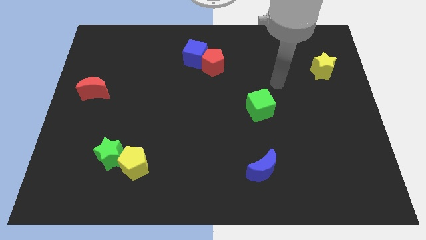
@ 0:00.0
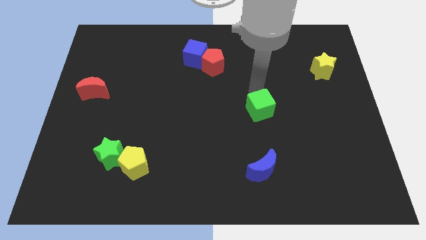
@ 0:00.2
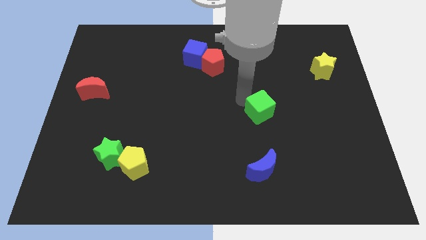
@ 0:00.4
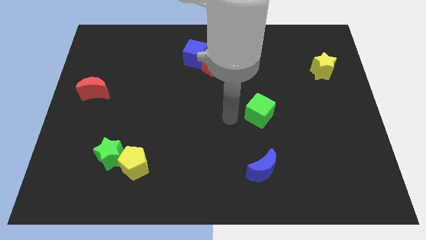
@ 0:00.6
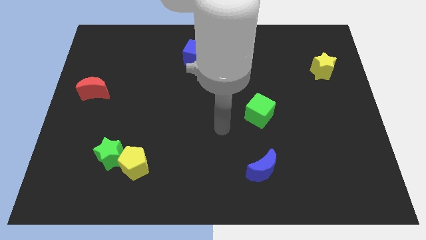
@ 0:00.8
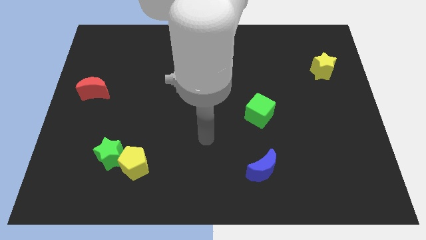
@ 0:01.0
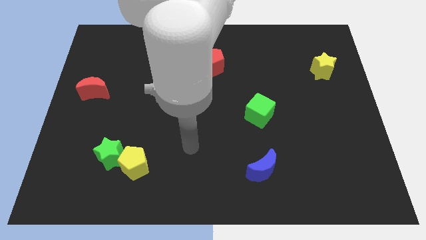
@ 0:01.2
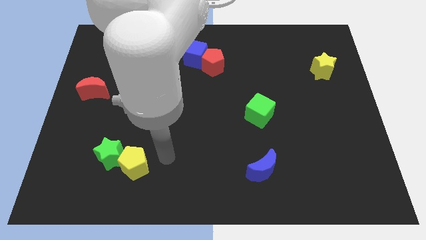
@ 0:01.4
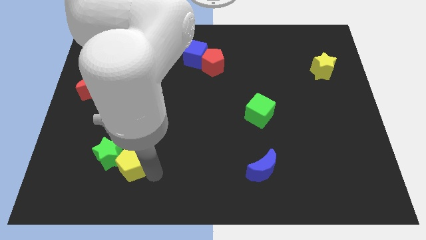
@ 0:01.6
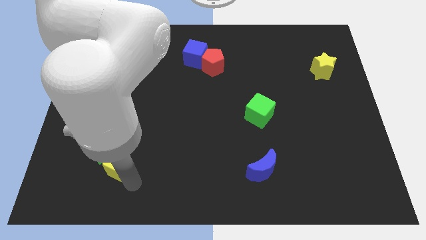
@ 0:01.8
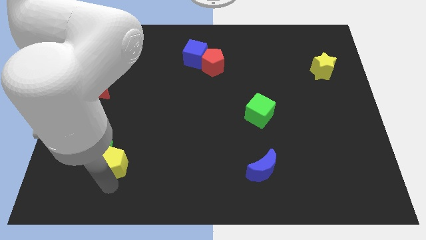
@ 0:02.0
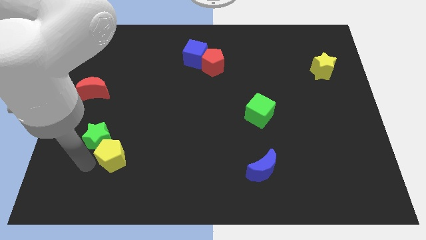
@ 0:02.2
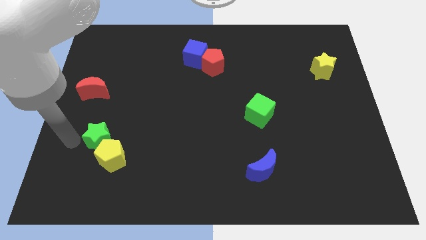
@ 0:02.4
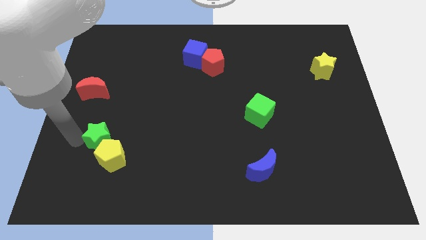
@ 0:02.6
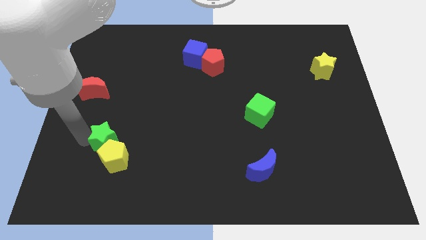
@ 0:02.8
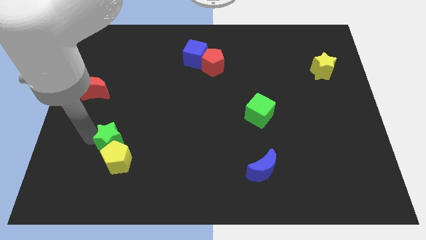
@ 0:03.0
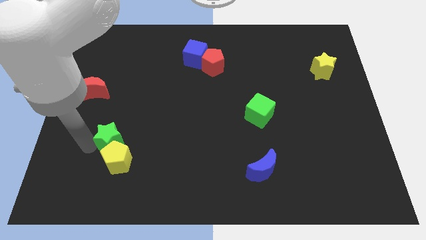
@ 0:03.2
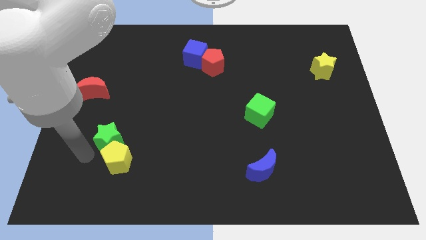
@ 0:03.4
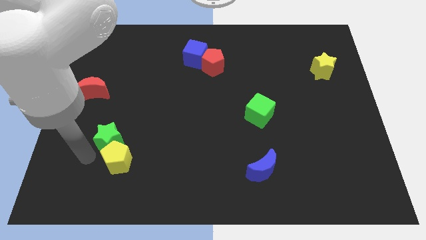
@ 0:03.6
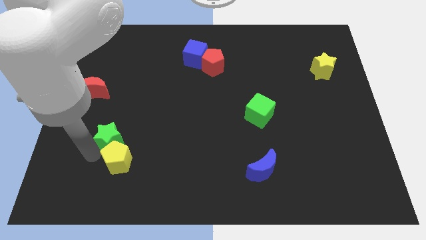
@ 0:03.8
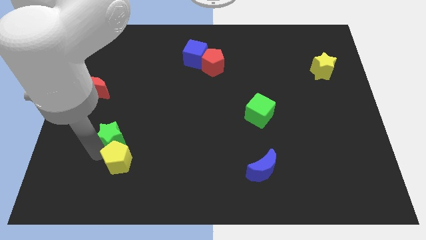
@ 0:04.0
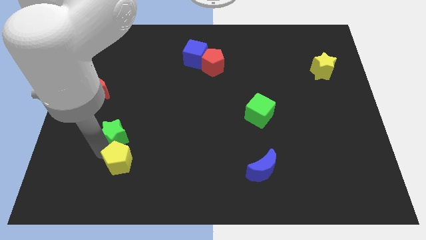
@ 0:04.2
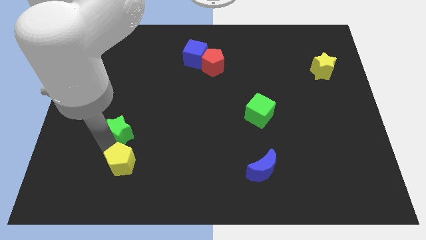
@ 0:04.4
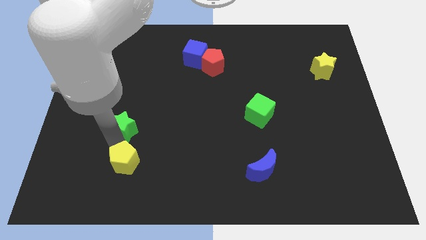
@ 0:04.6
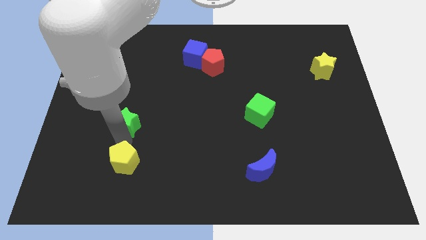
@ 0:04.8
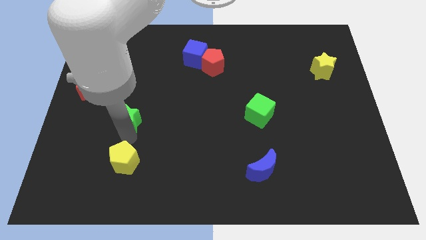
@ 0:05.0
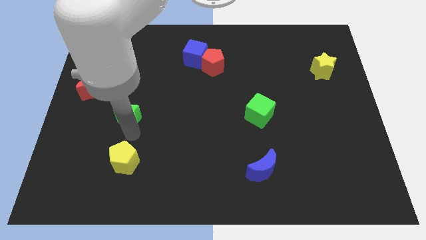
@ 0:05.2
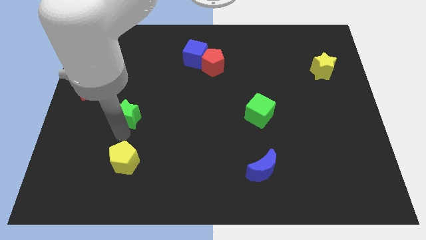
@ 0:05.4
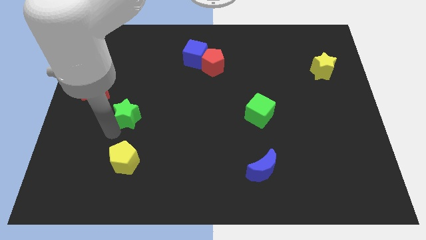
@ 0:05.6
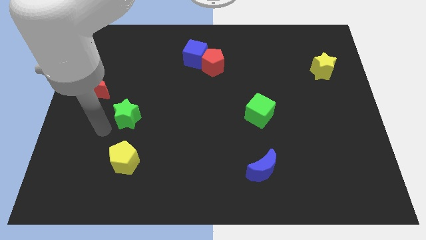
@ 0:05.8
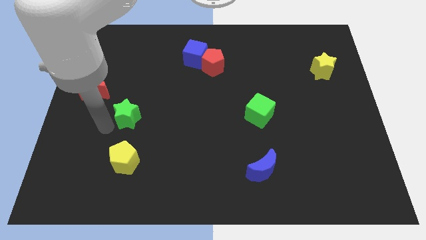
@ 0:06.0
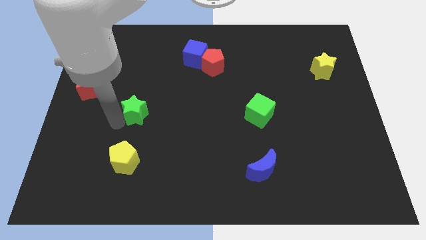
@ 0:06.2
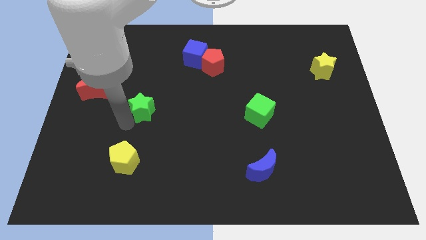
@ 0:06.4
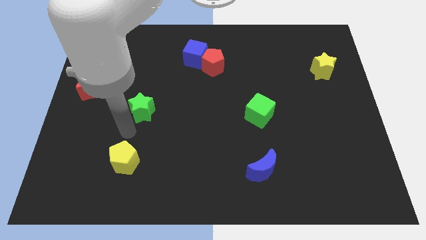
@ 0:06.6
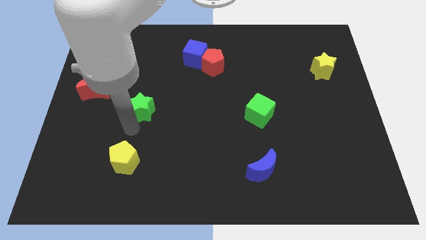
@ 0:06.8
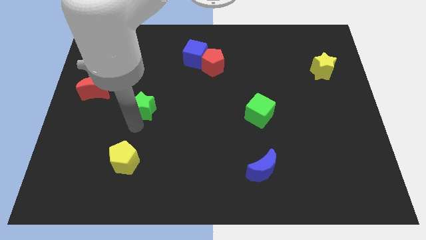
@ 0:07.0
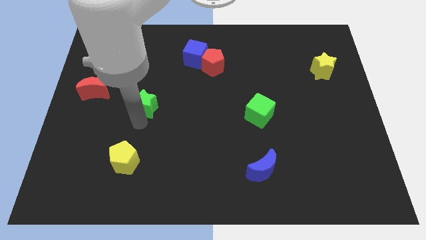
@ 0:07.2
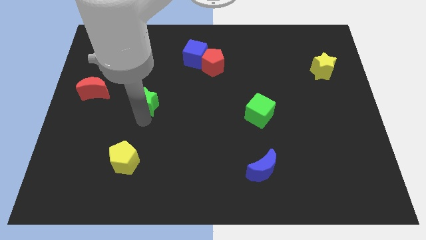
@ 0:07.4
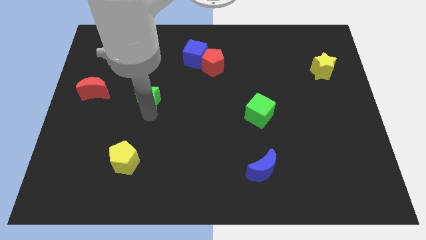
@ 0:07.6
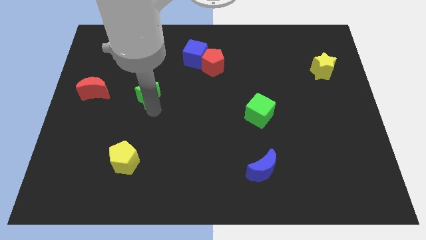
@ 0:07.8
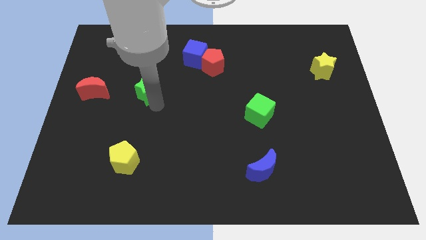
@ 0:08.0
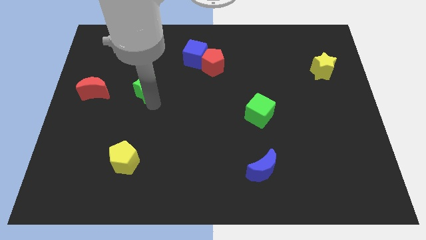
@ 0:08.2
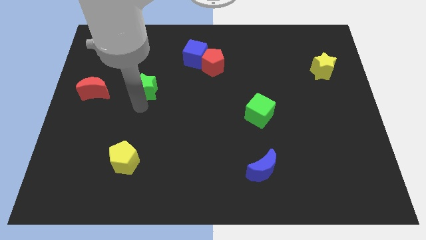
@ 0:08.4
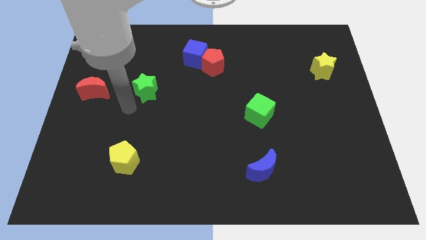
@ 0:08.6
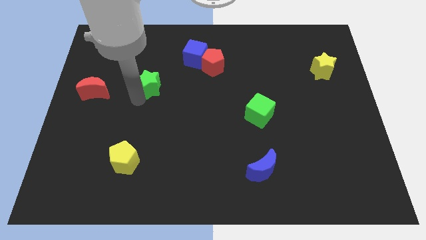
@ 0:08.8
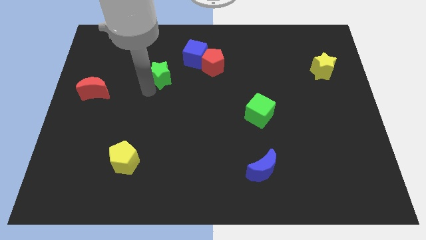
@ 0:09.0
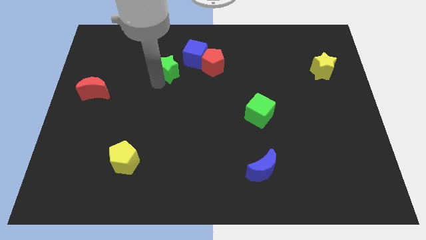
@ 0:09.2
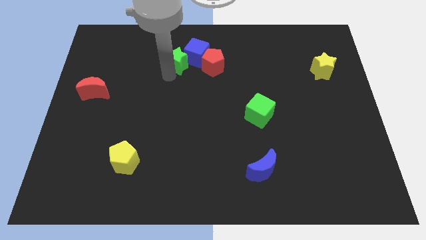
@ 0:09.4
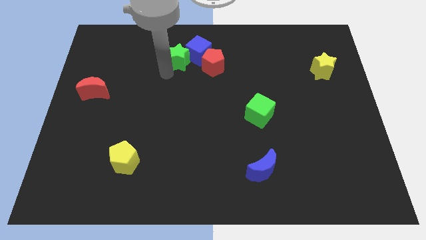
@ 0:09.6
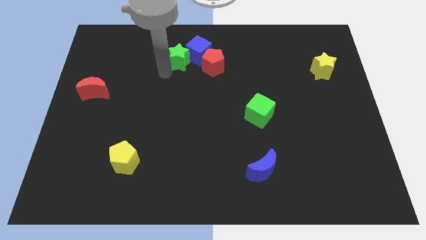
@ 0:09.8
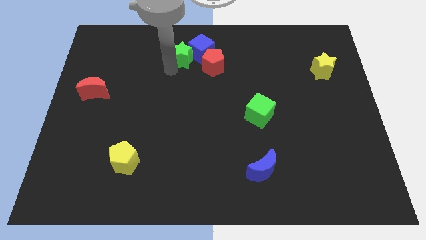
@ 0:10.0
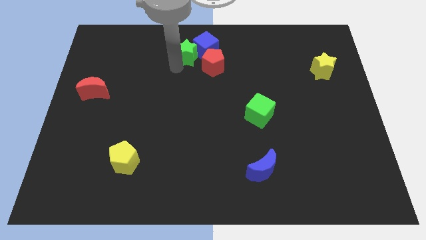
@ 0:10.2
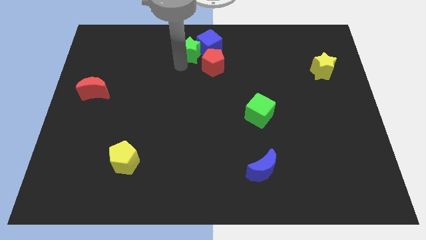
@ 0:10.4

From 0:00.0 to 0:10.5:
put the green star to the top side

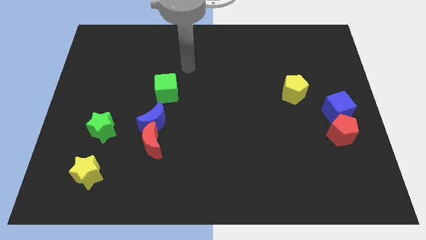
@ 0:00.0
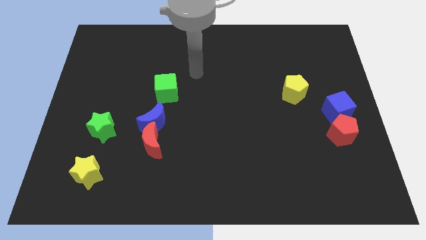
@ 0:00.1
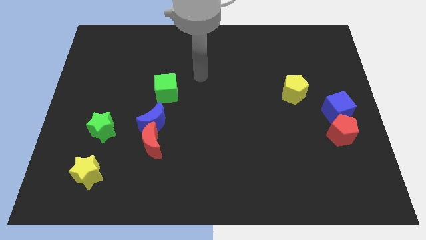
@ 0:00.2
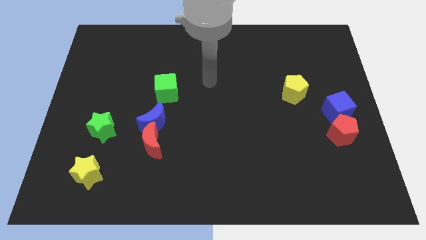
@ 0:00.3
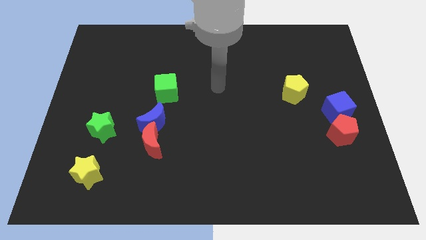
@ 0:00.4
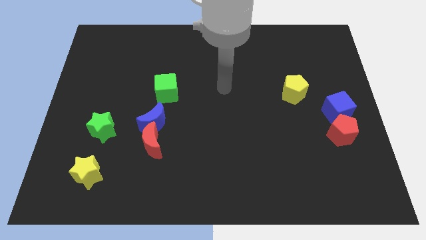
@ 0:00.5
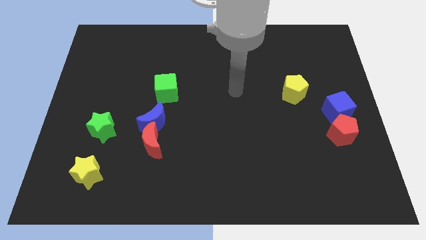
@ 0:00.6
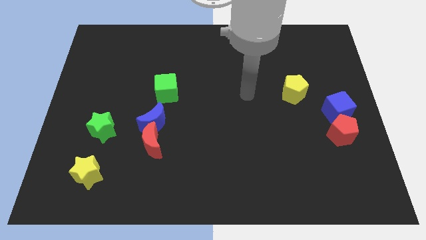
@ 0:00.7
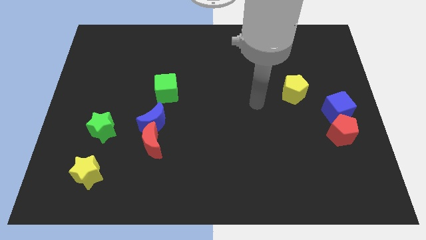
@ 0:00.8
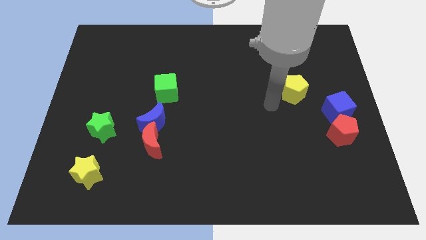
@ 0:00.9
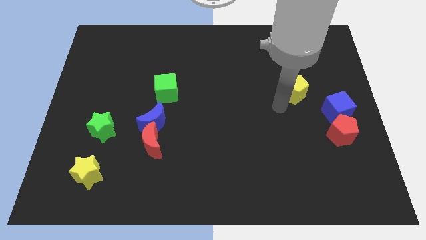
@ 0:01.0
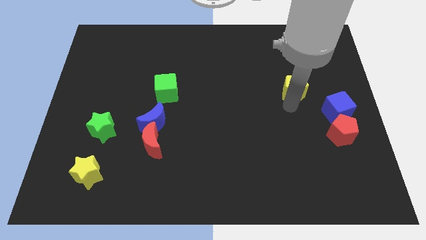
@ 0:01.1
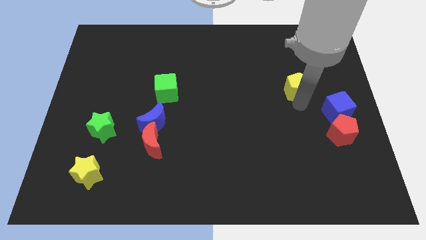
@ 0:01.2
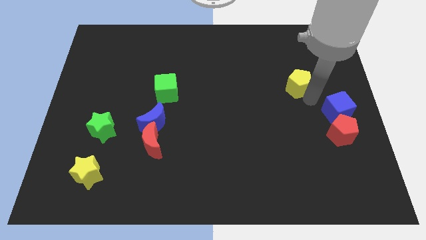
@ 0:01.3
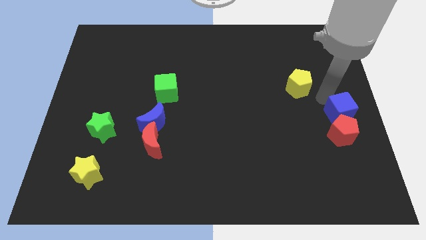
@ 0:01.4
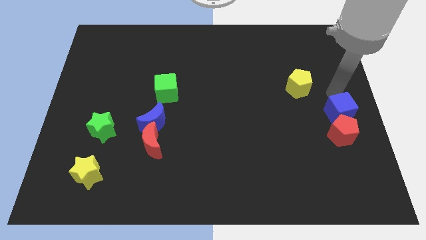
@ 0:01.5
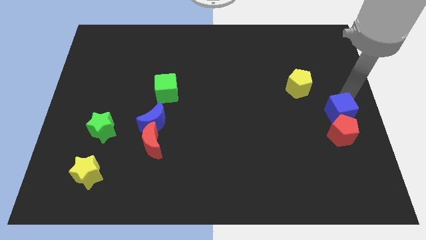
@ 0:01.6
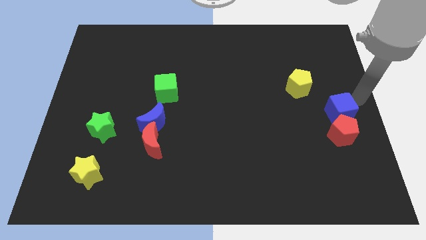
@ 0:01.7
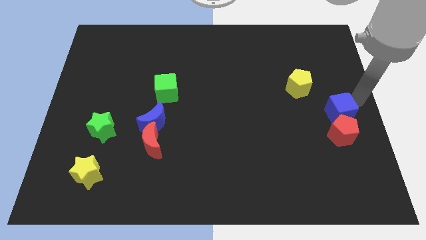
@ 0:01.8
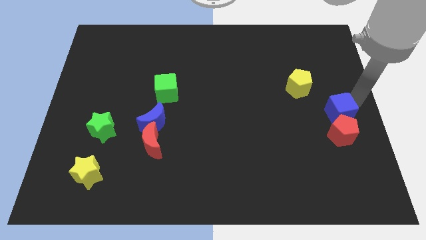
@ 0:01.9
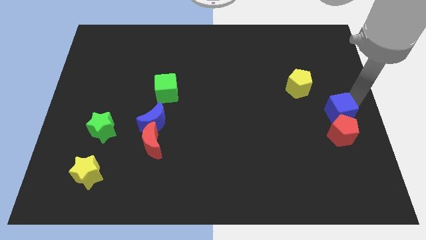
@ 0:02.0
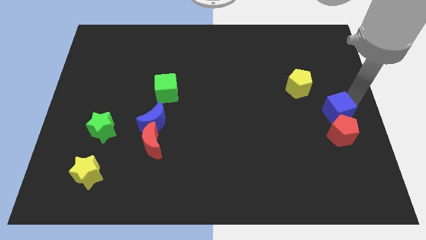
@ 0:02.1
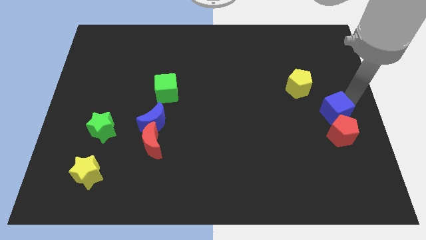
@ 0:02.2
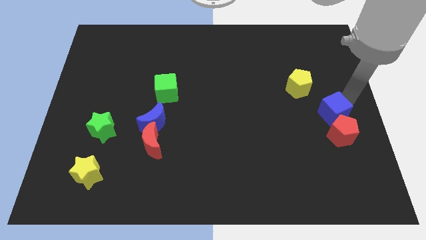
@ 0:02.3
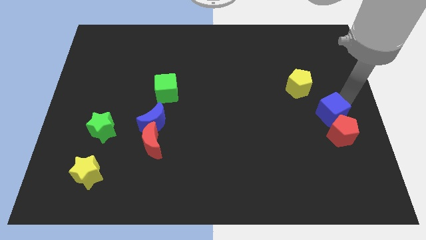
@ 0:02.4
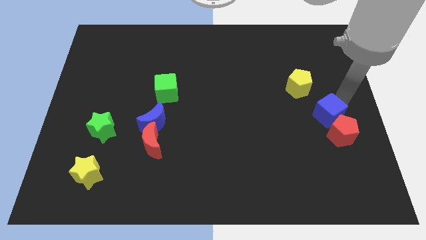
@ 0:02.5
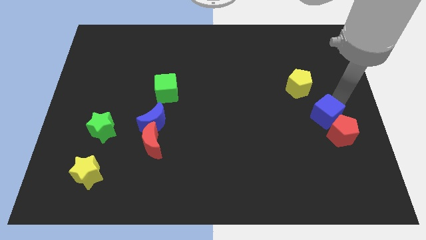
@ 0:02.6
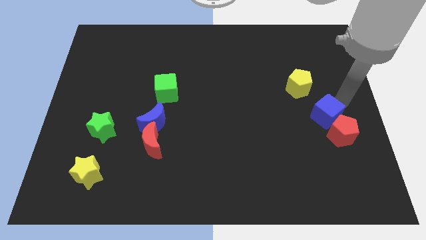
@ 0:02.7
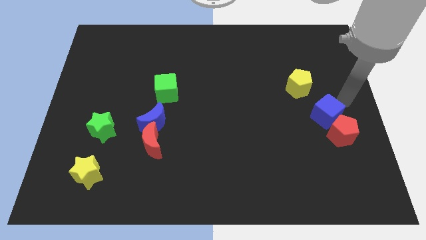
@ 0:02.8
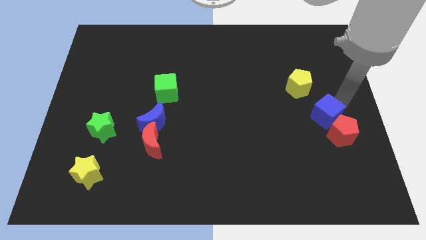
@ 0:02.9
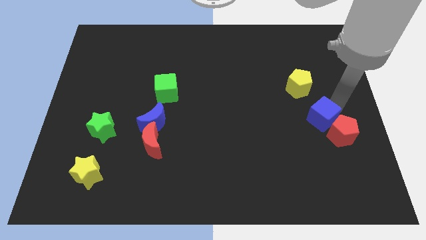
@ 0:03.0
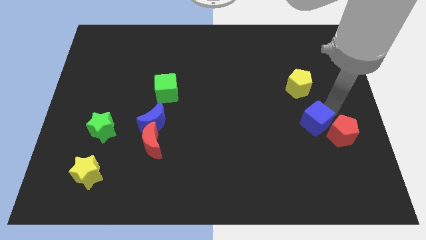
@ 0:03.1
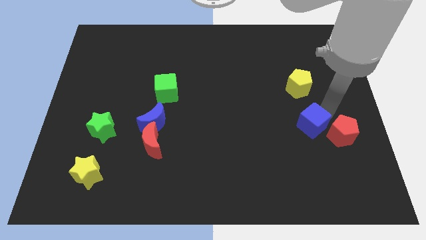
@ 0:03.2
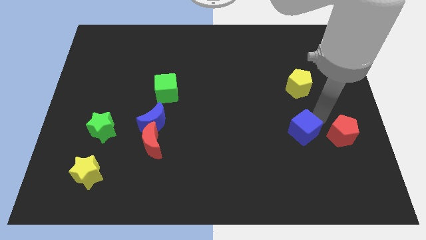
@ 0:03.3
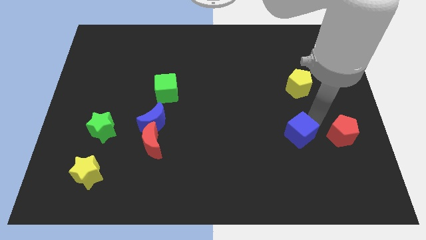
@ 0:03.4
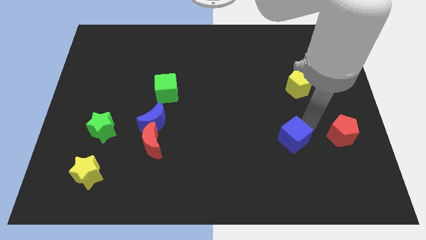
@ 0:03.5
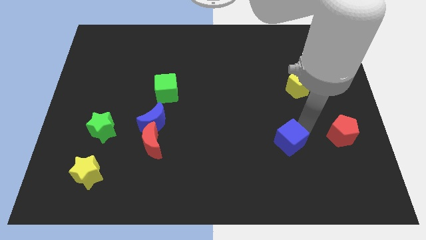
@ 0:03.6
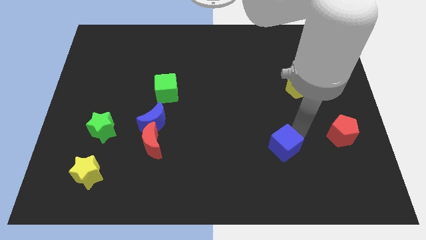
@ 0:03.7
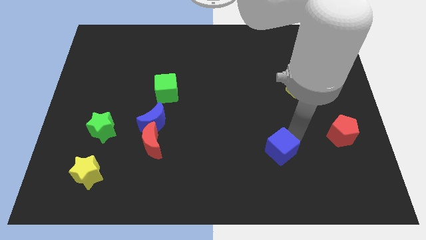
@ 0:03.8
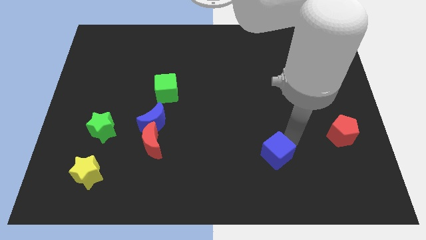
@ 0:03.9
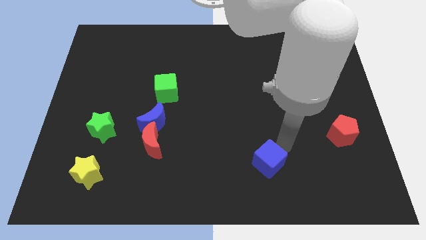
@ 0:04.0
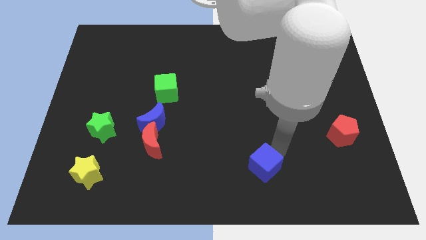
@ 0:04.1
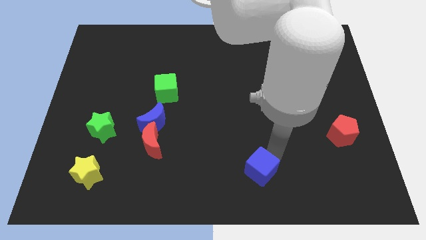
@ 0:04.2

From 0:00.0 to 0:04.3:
move the blue cube to the bottom
